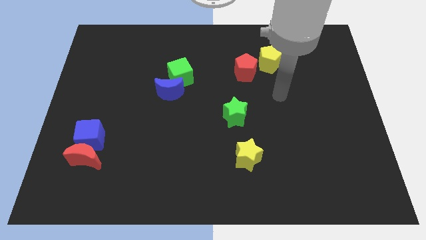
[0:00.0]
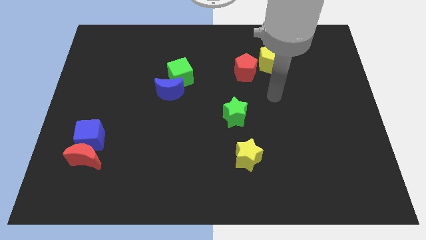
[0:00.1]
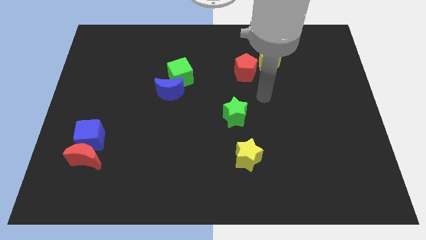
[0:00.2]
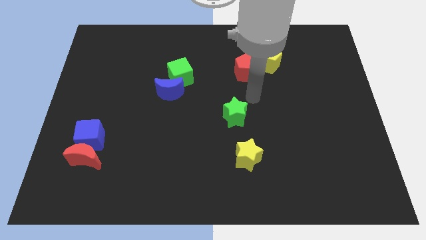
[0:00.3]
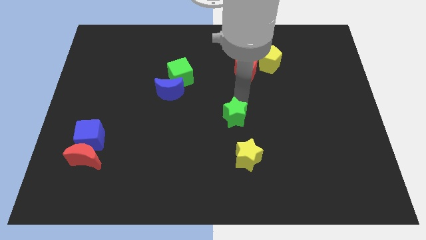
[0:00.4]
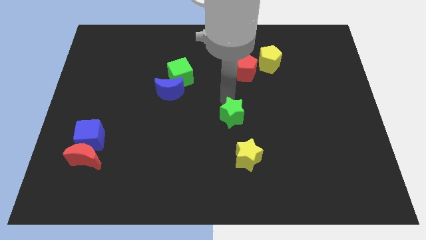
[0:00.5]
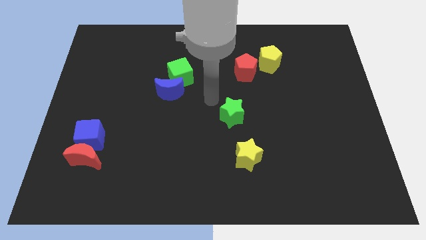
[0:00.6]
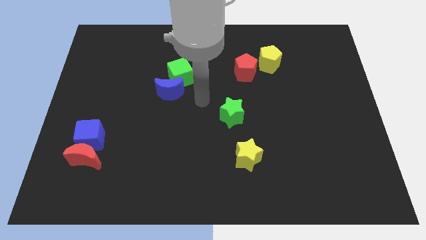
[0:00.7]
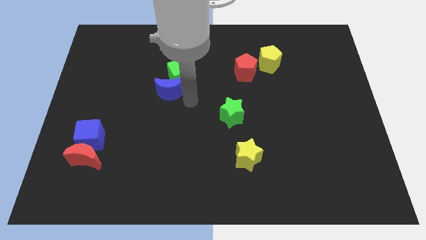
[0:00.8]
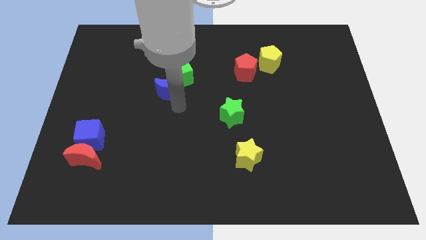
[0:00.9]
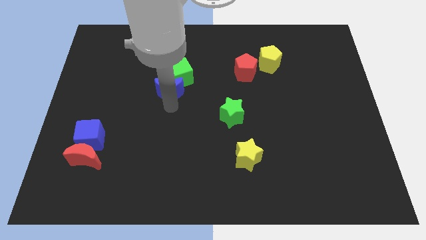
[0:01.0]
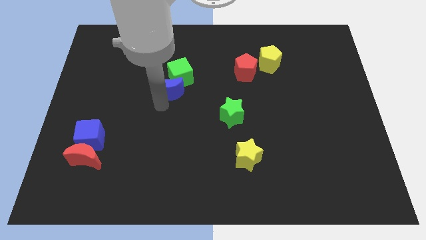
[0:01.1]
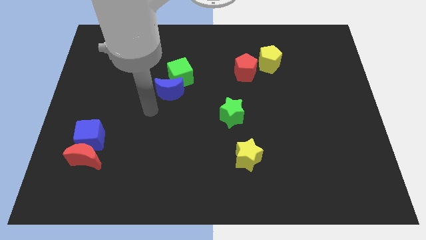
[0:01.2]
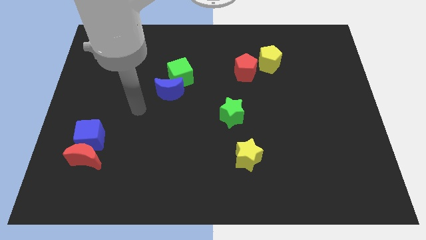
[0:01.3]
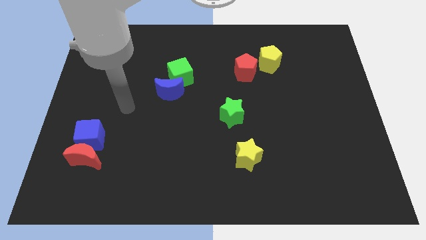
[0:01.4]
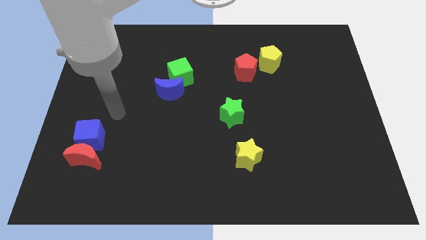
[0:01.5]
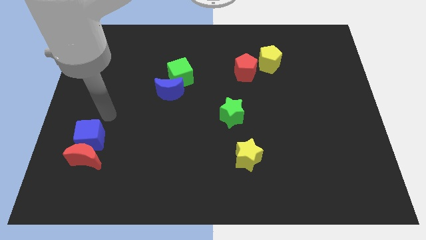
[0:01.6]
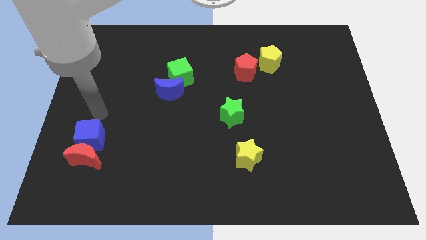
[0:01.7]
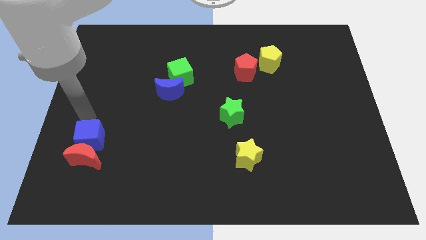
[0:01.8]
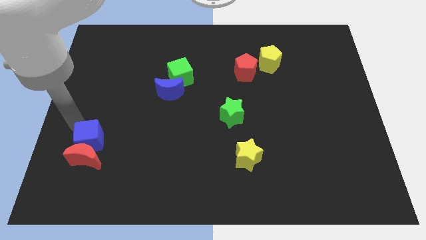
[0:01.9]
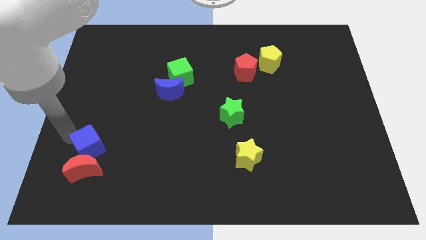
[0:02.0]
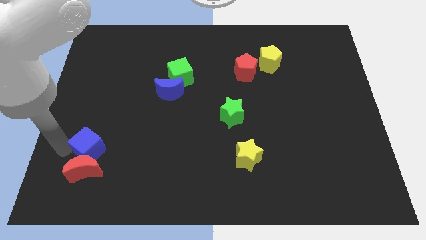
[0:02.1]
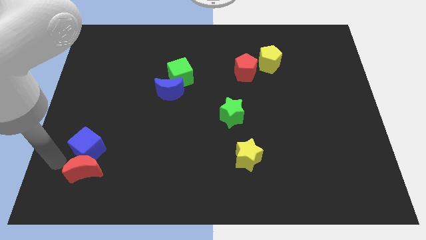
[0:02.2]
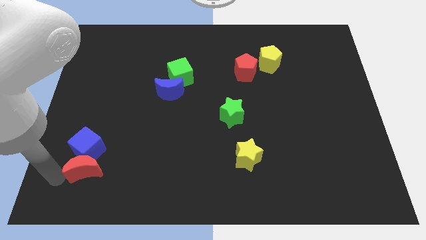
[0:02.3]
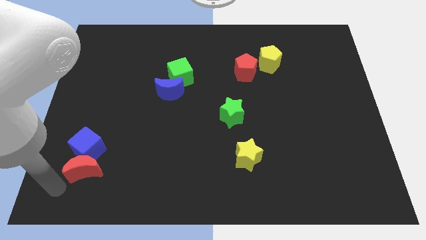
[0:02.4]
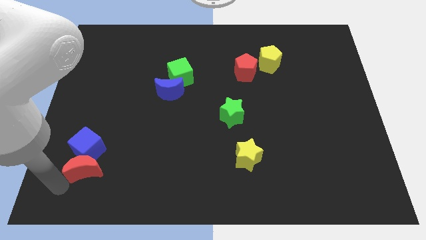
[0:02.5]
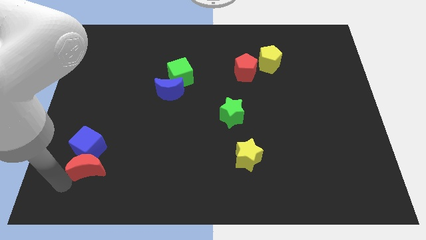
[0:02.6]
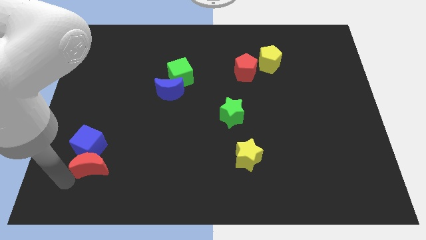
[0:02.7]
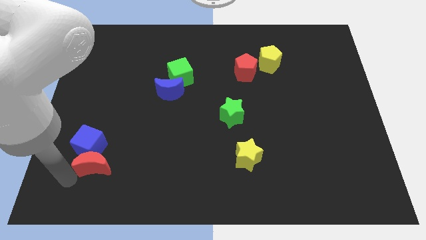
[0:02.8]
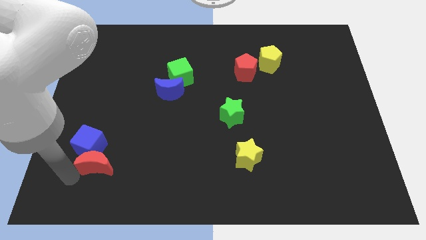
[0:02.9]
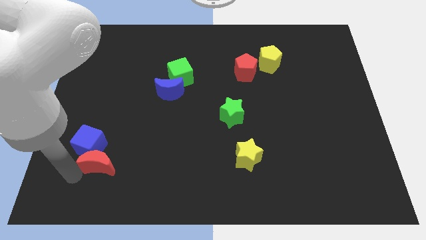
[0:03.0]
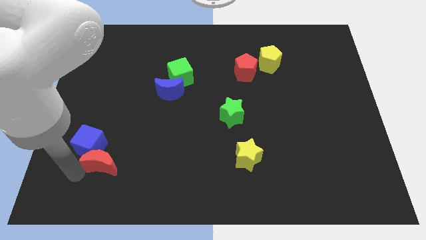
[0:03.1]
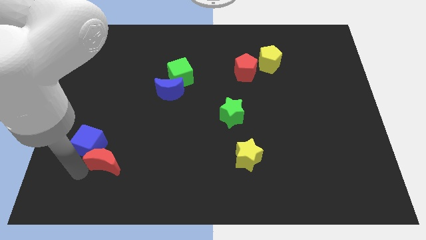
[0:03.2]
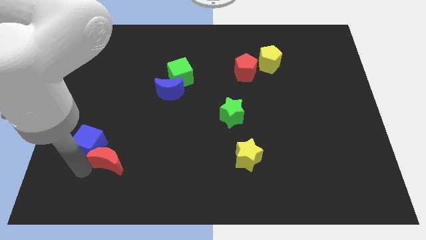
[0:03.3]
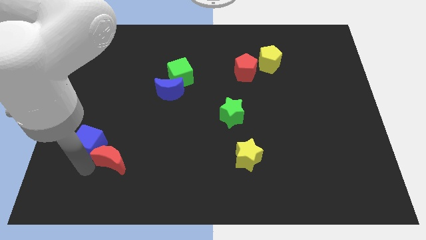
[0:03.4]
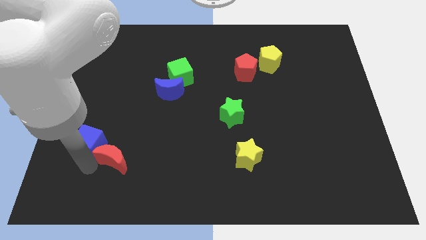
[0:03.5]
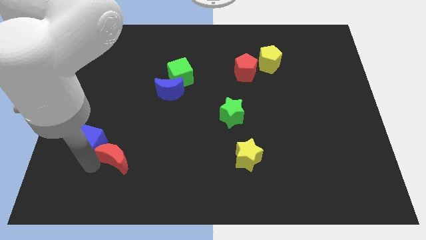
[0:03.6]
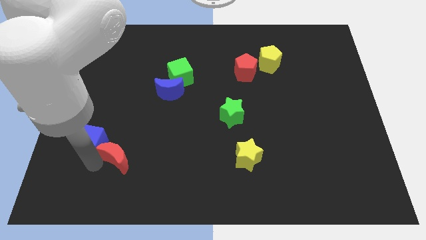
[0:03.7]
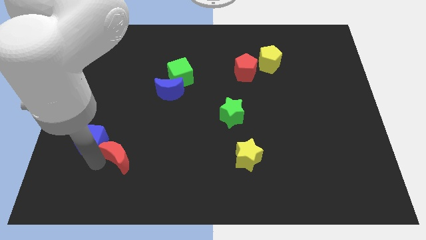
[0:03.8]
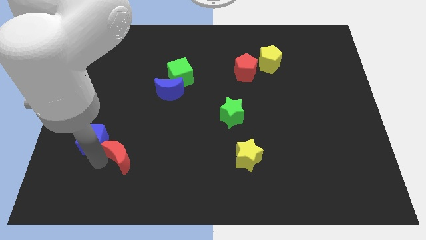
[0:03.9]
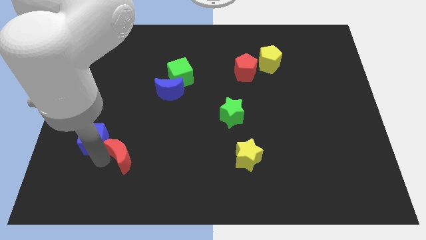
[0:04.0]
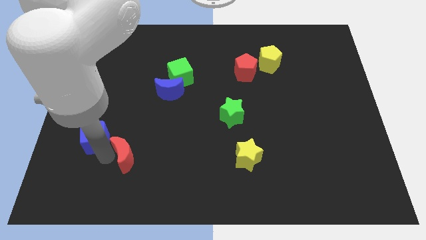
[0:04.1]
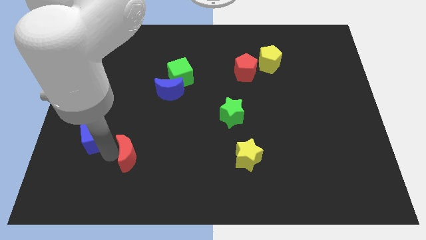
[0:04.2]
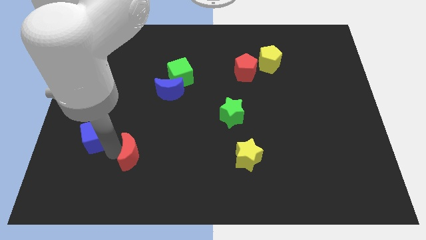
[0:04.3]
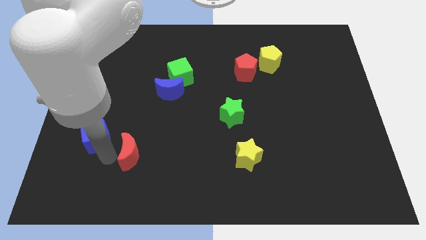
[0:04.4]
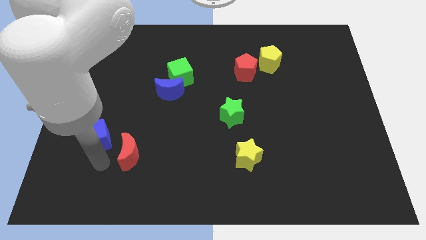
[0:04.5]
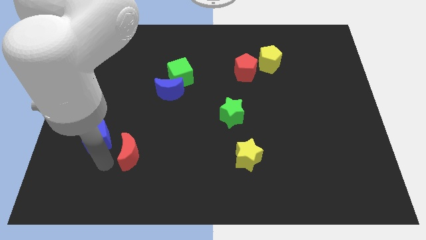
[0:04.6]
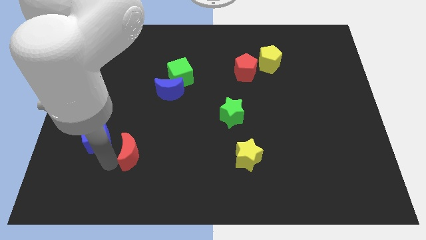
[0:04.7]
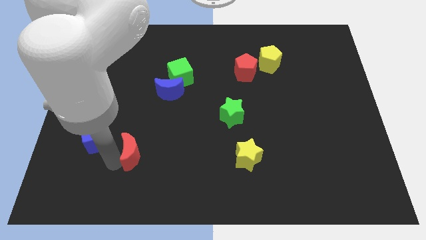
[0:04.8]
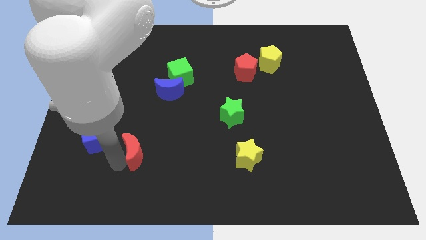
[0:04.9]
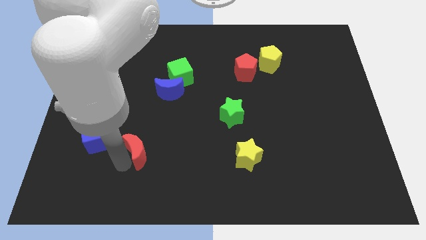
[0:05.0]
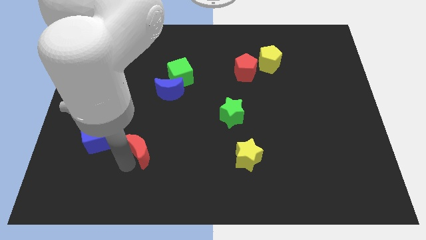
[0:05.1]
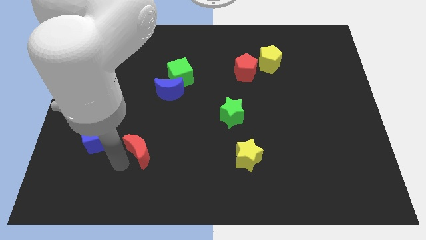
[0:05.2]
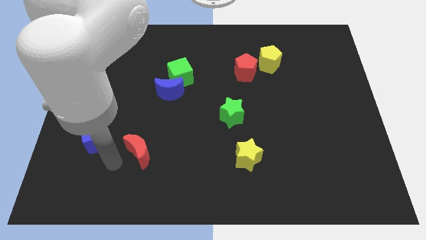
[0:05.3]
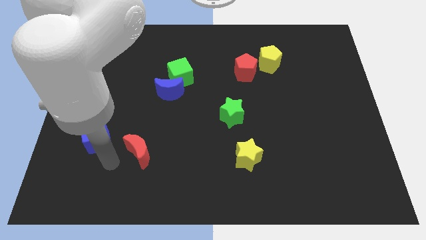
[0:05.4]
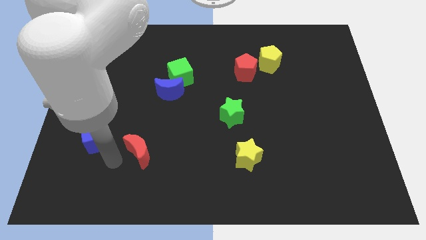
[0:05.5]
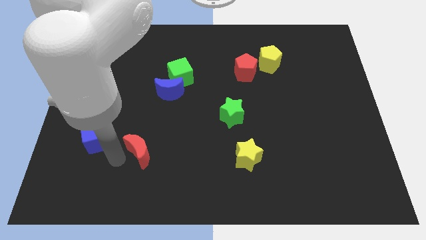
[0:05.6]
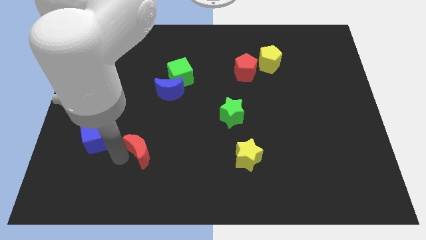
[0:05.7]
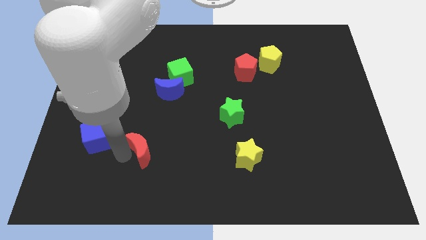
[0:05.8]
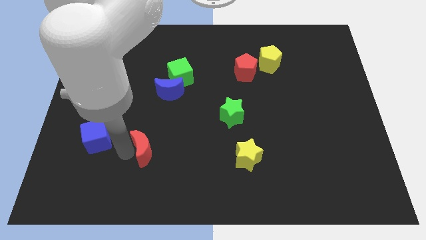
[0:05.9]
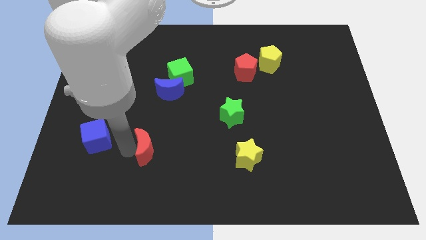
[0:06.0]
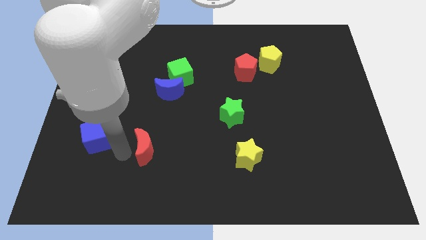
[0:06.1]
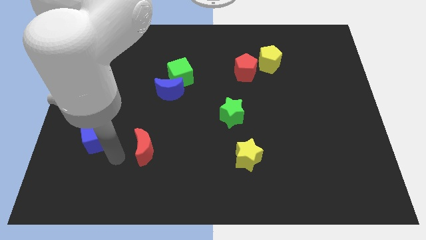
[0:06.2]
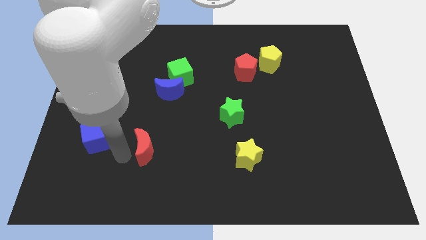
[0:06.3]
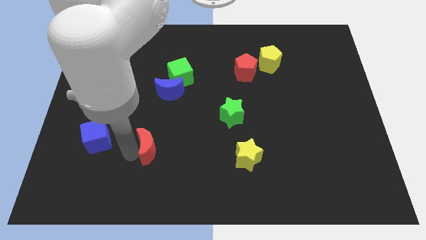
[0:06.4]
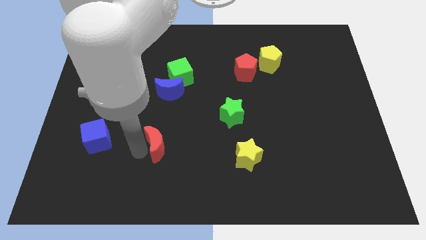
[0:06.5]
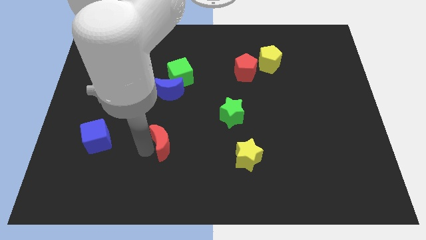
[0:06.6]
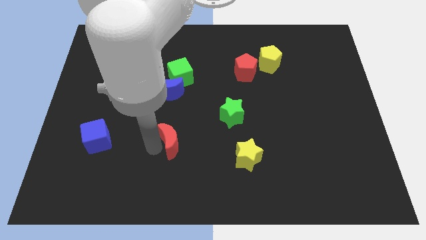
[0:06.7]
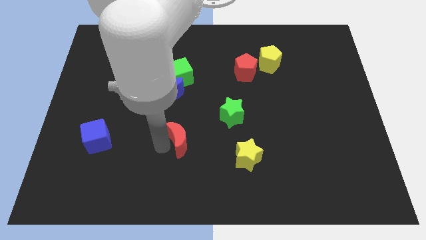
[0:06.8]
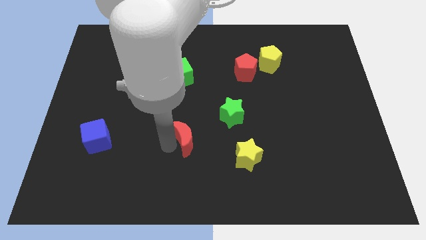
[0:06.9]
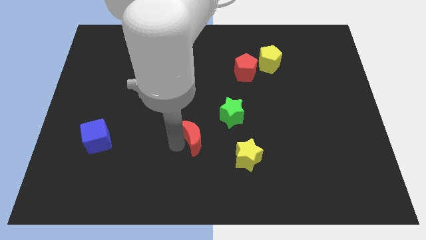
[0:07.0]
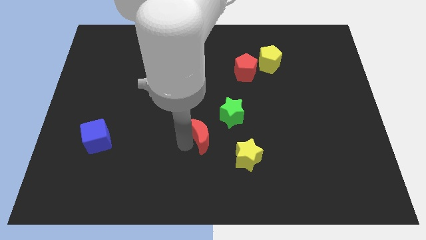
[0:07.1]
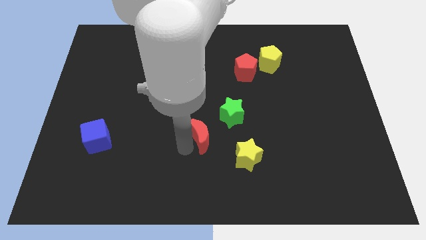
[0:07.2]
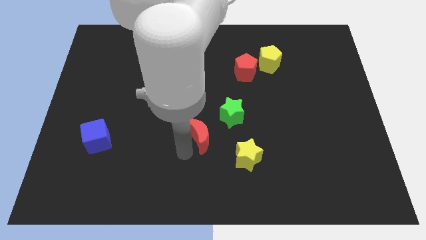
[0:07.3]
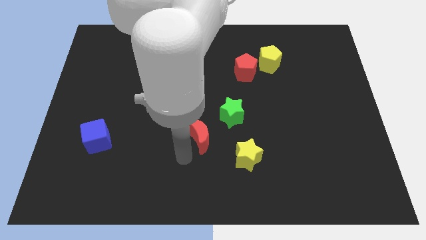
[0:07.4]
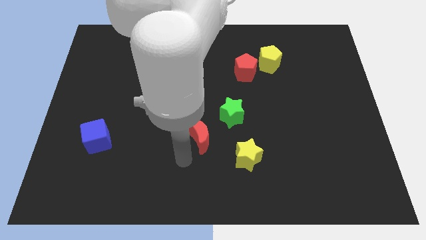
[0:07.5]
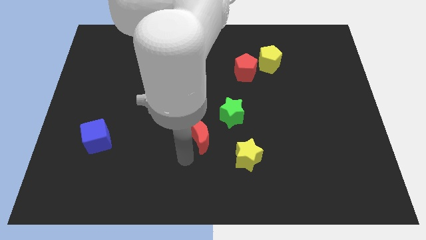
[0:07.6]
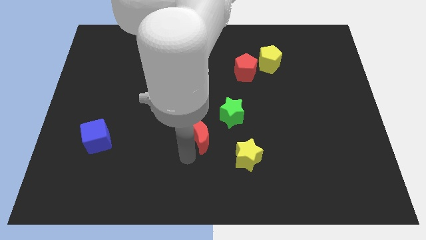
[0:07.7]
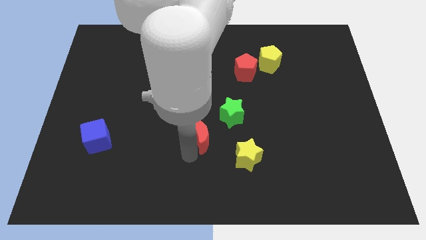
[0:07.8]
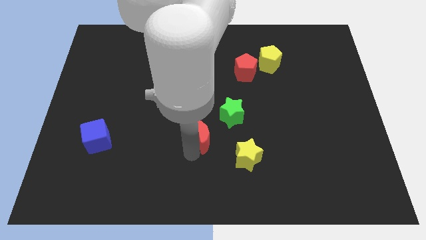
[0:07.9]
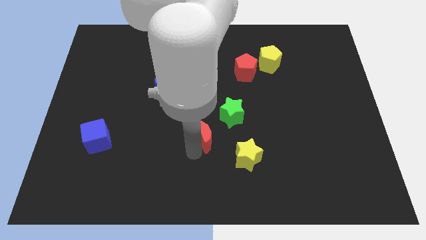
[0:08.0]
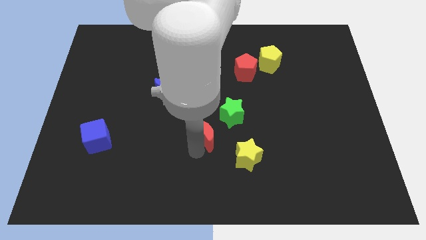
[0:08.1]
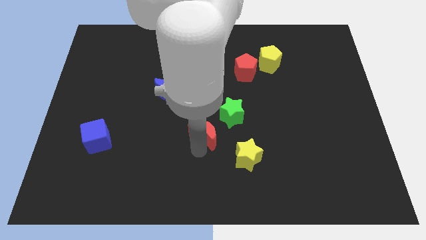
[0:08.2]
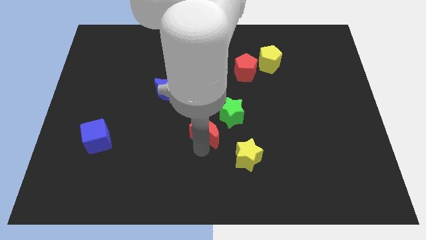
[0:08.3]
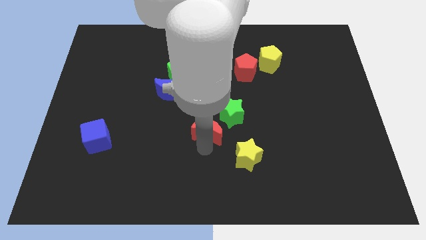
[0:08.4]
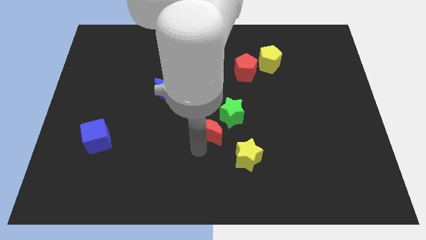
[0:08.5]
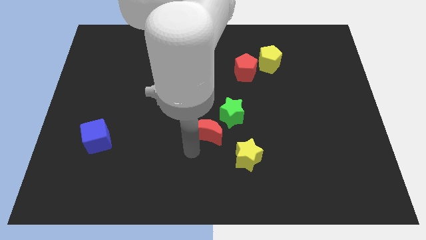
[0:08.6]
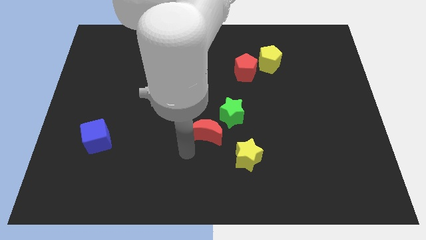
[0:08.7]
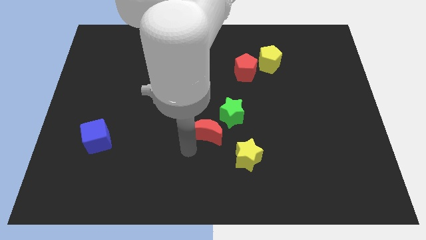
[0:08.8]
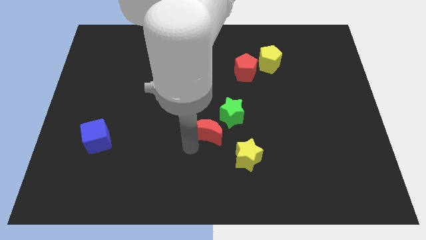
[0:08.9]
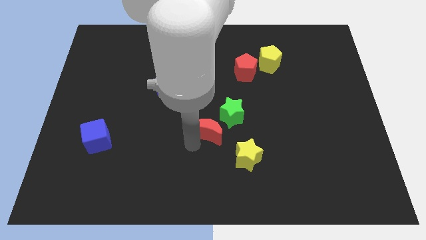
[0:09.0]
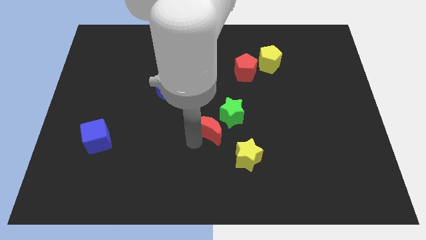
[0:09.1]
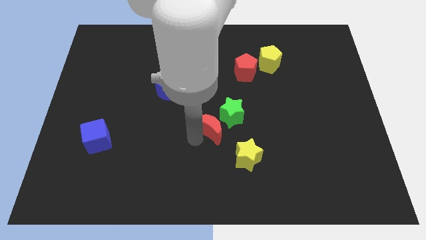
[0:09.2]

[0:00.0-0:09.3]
push the red moon close to the green star
